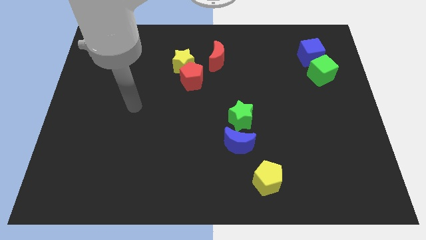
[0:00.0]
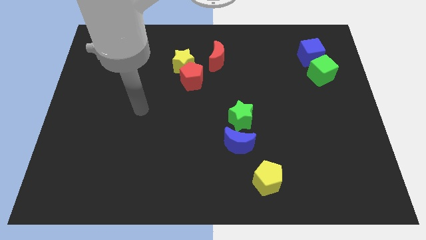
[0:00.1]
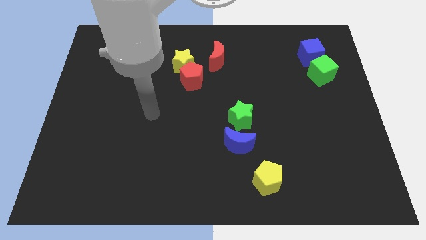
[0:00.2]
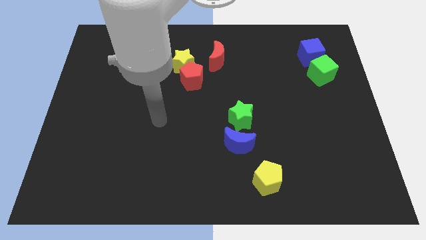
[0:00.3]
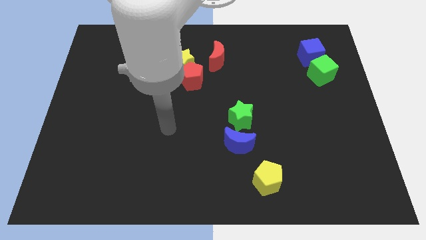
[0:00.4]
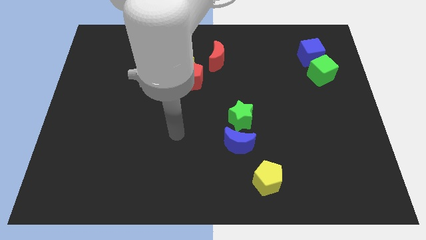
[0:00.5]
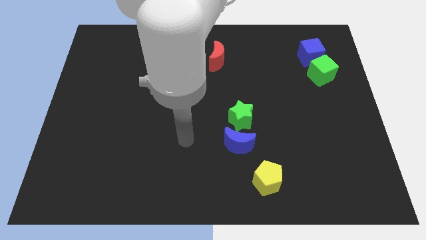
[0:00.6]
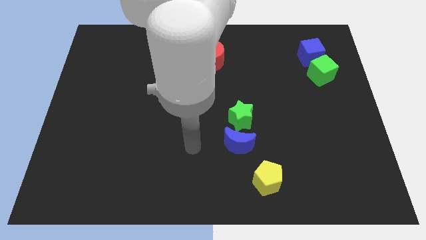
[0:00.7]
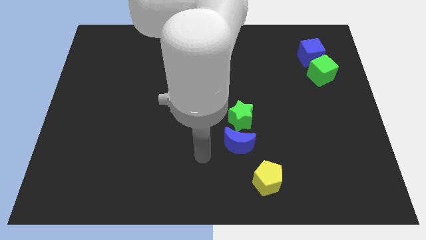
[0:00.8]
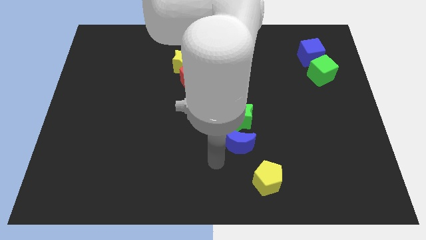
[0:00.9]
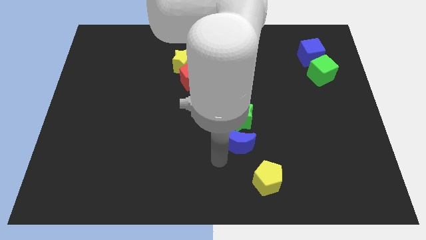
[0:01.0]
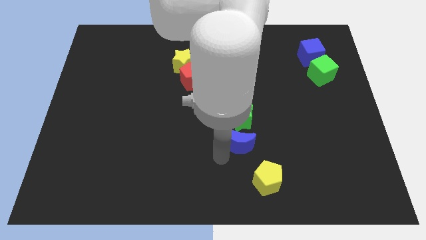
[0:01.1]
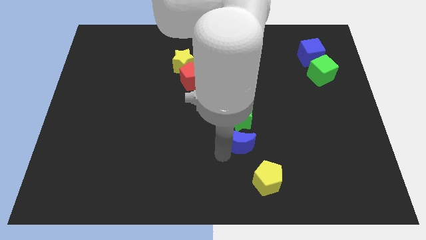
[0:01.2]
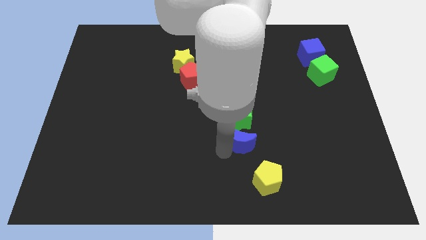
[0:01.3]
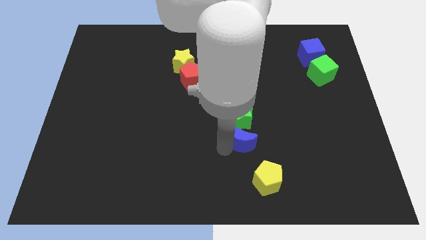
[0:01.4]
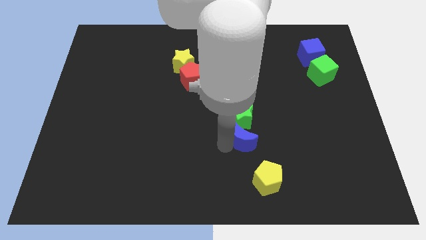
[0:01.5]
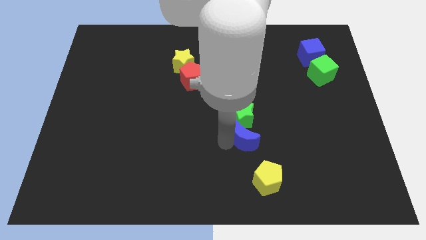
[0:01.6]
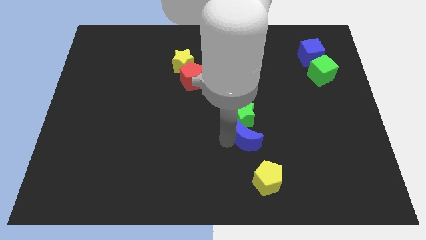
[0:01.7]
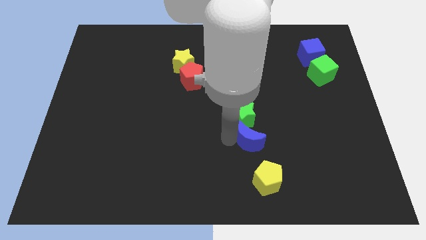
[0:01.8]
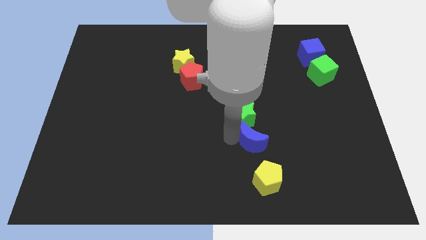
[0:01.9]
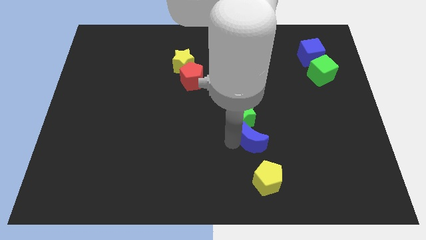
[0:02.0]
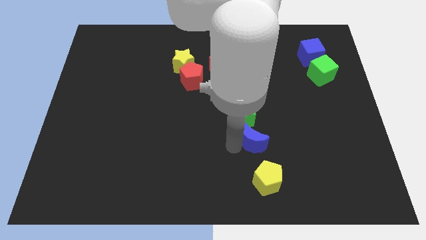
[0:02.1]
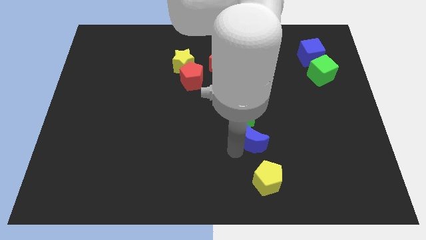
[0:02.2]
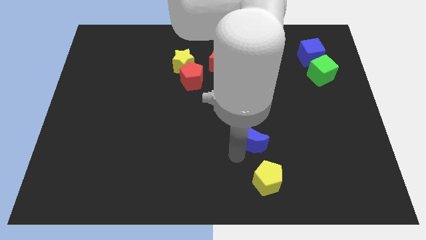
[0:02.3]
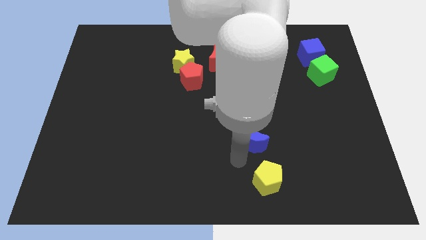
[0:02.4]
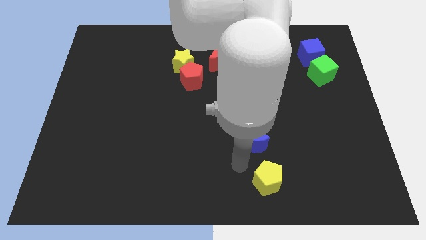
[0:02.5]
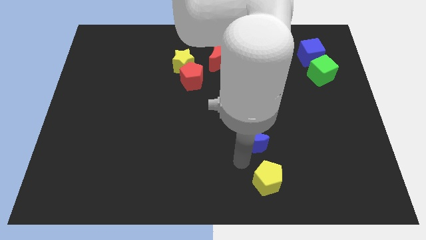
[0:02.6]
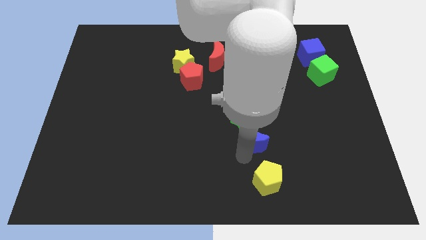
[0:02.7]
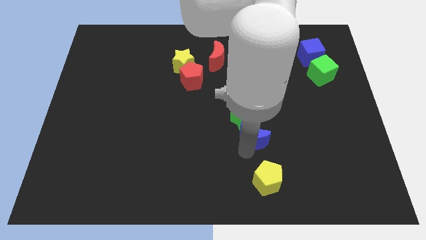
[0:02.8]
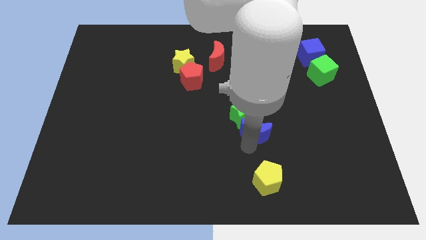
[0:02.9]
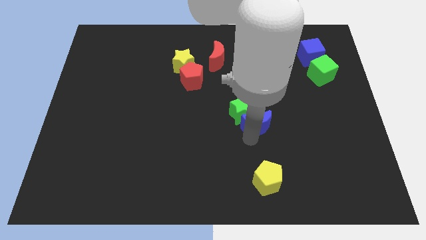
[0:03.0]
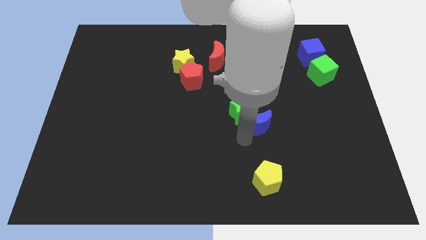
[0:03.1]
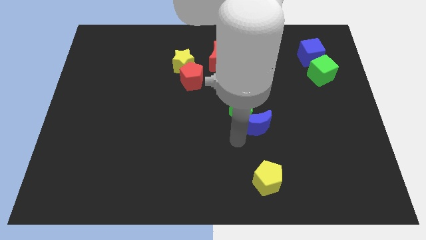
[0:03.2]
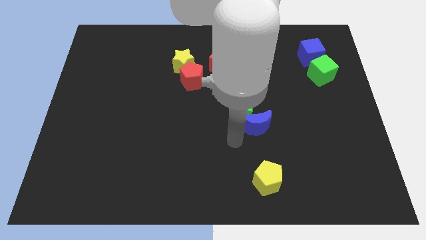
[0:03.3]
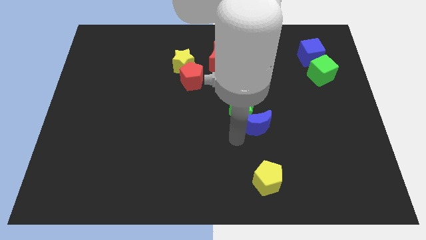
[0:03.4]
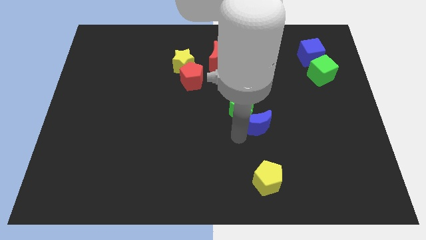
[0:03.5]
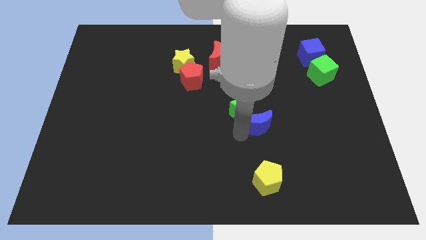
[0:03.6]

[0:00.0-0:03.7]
slide the blue moon diagonally upwards and to the right a little bit

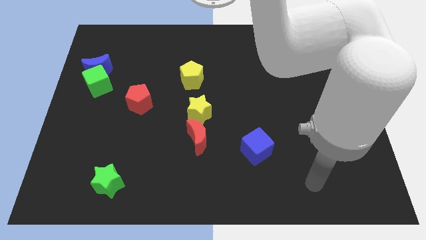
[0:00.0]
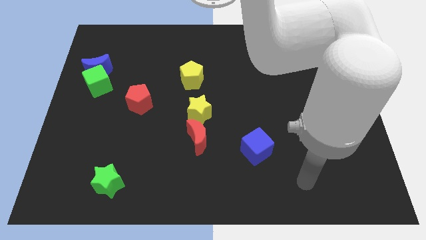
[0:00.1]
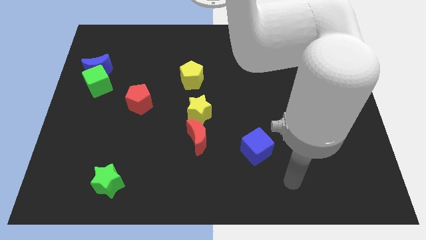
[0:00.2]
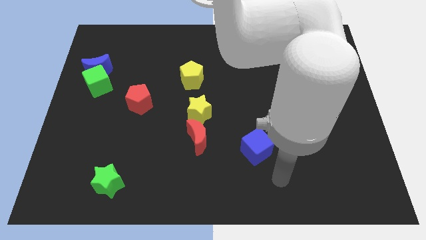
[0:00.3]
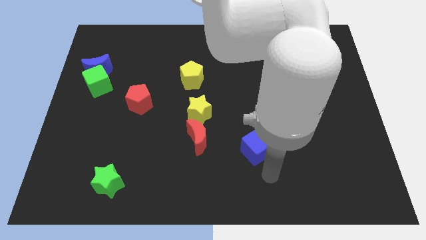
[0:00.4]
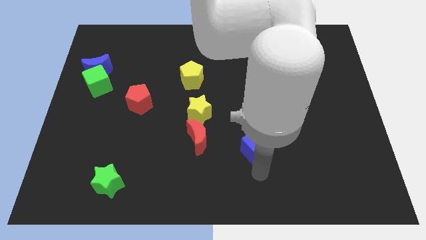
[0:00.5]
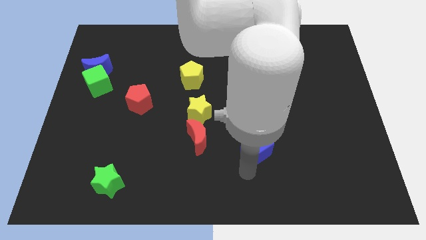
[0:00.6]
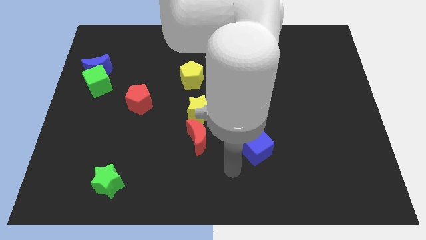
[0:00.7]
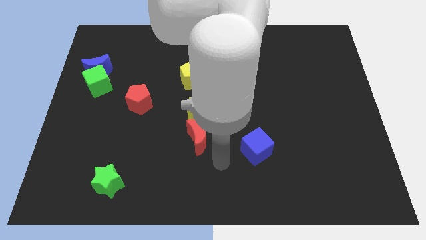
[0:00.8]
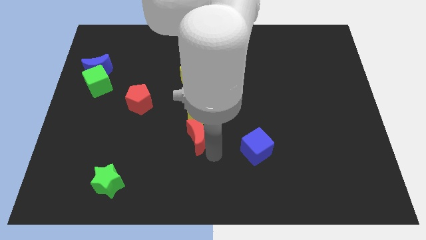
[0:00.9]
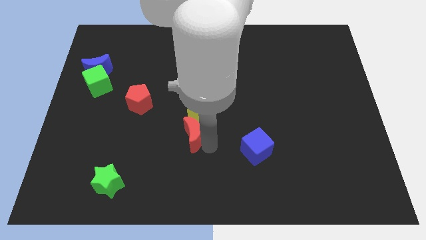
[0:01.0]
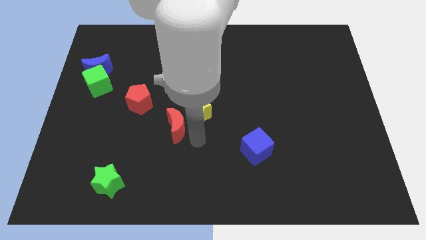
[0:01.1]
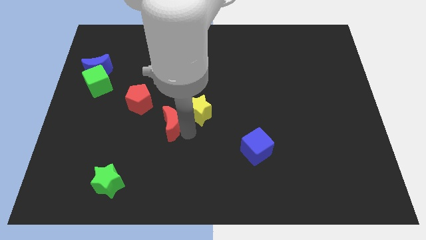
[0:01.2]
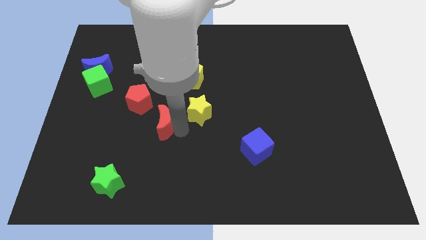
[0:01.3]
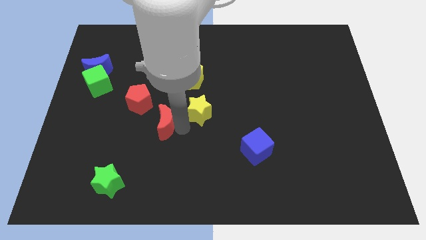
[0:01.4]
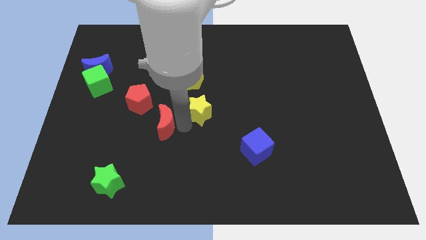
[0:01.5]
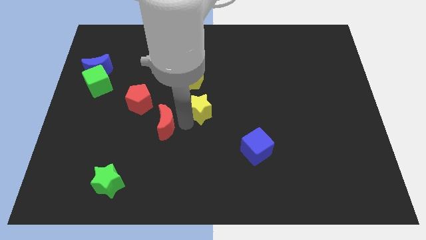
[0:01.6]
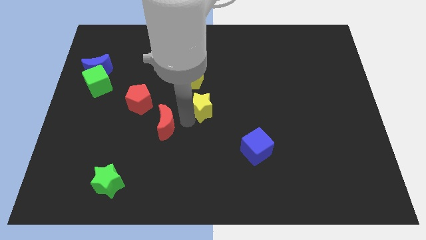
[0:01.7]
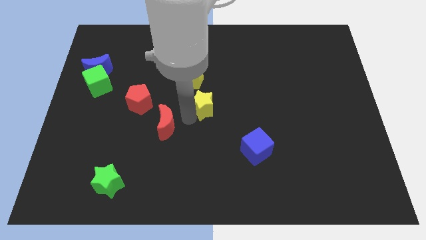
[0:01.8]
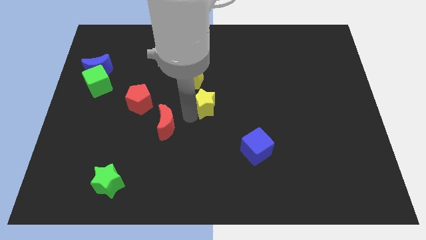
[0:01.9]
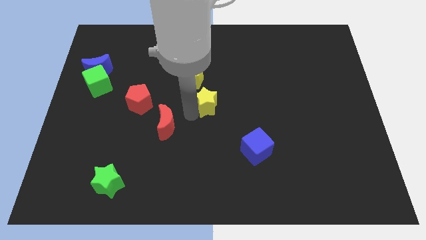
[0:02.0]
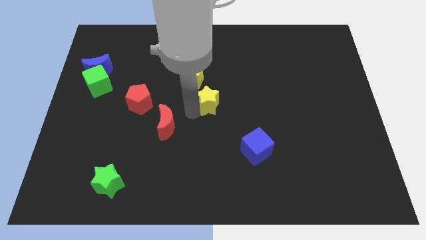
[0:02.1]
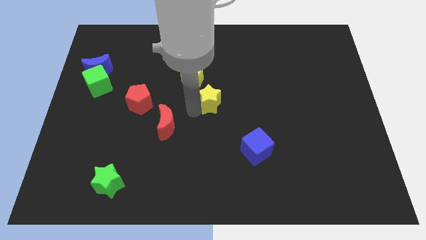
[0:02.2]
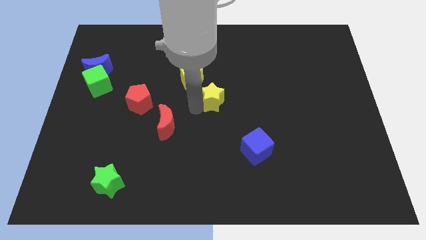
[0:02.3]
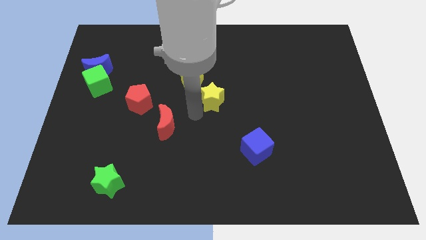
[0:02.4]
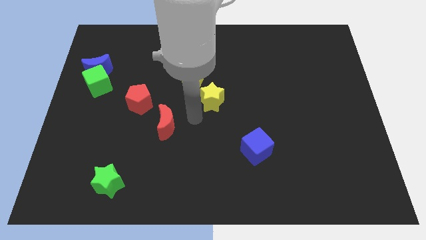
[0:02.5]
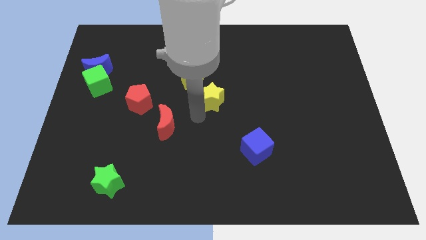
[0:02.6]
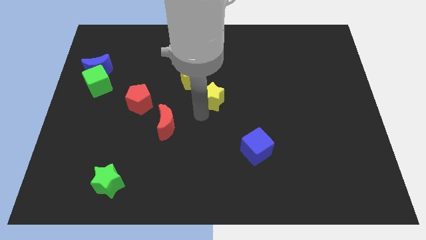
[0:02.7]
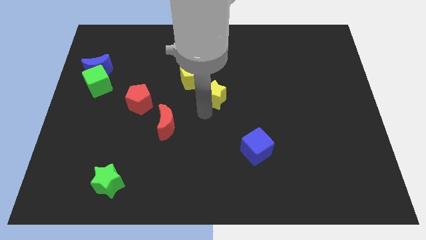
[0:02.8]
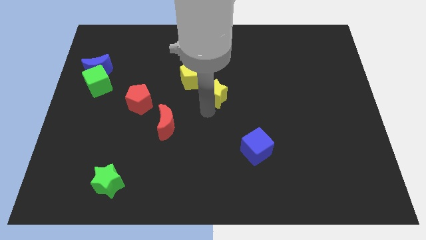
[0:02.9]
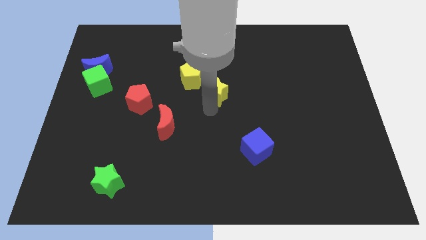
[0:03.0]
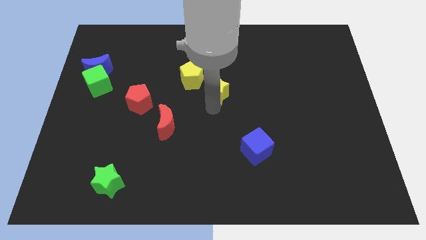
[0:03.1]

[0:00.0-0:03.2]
slide the yellow star diagonally up and right slightly

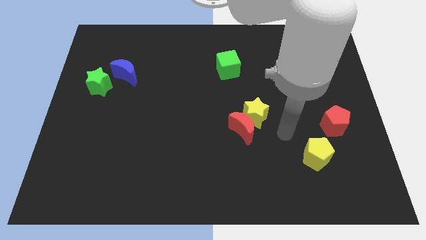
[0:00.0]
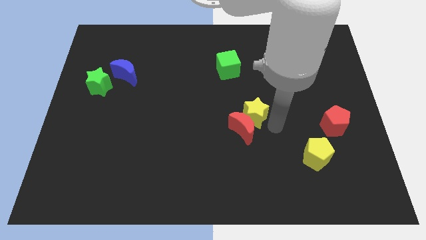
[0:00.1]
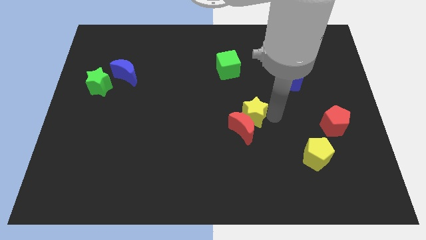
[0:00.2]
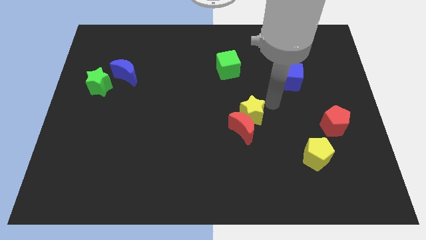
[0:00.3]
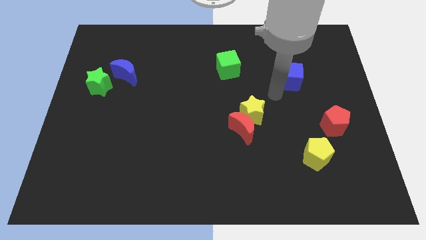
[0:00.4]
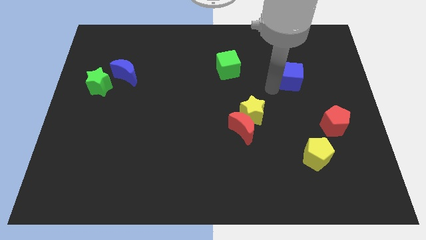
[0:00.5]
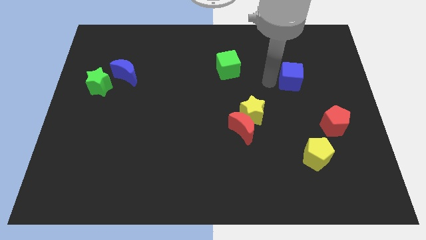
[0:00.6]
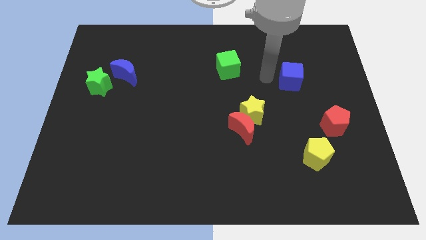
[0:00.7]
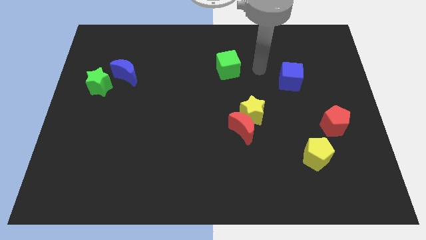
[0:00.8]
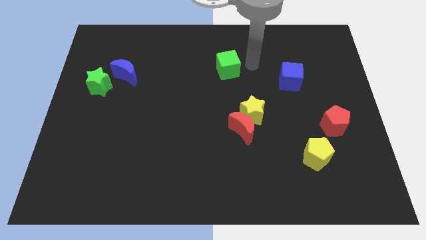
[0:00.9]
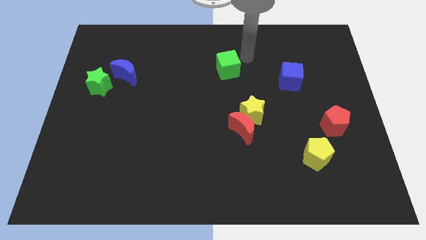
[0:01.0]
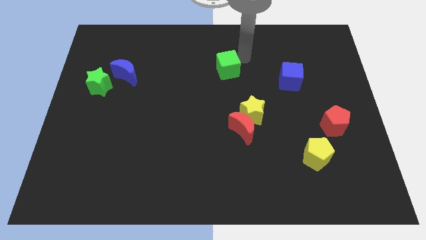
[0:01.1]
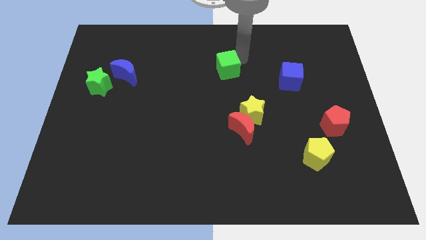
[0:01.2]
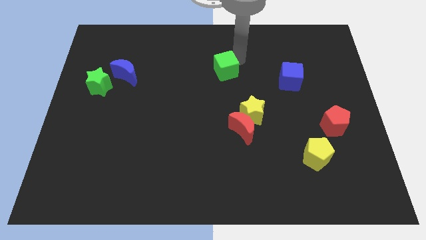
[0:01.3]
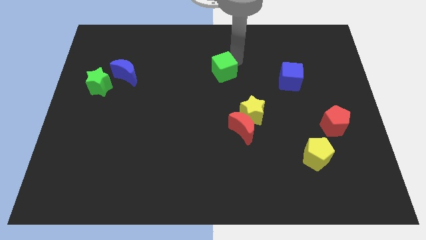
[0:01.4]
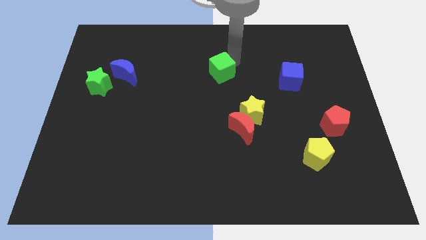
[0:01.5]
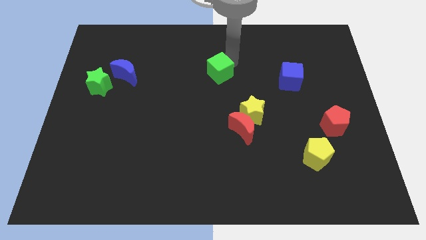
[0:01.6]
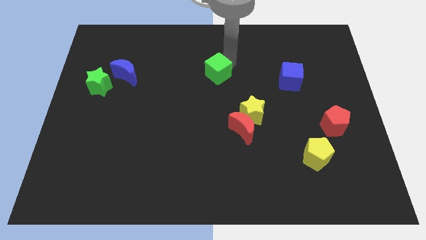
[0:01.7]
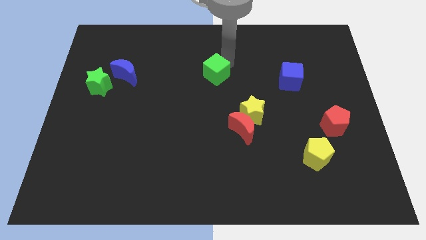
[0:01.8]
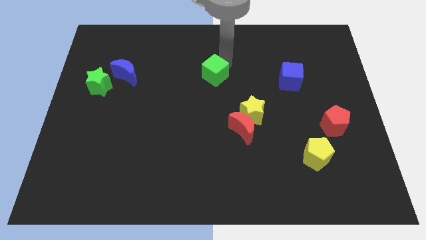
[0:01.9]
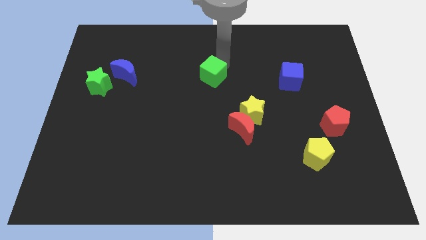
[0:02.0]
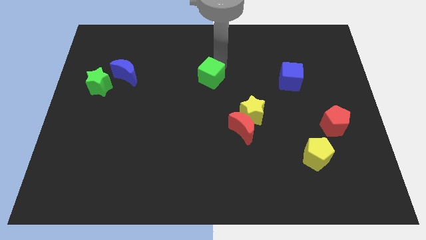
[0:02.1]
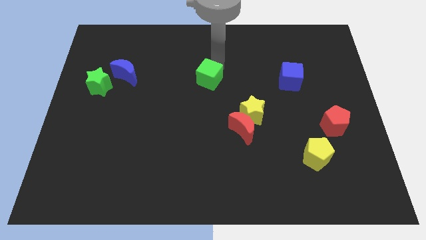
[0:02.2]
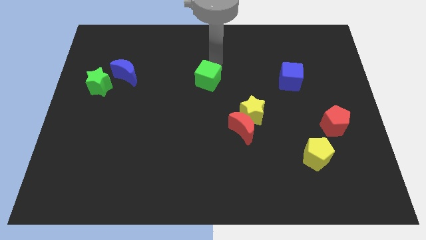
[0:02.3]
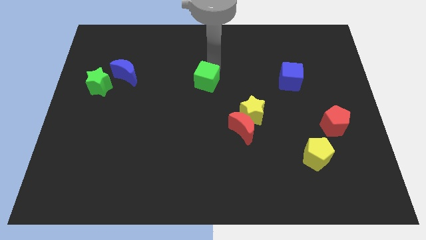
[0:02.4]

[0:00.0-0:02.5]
slightly push the green cube diagonally down and to the left
